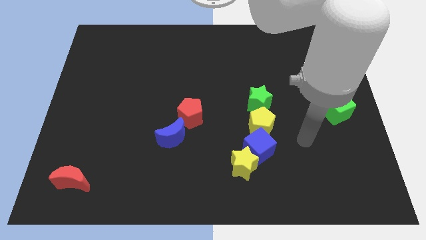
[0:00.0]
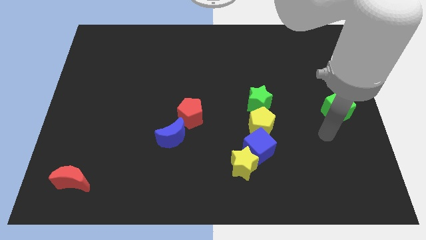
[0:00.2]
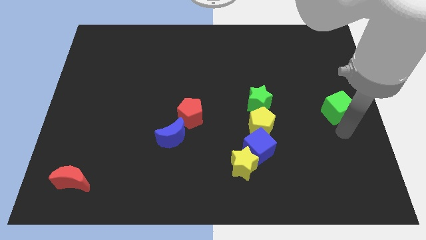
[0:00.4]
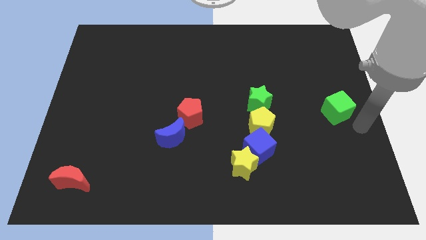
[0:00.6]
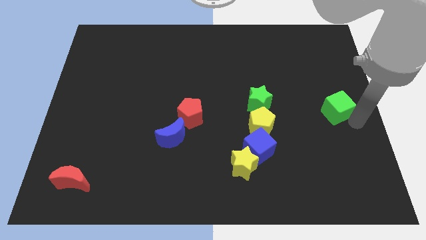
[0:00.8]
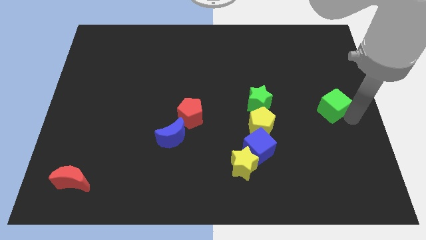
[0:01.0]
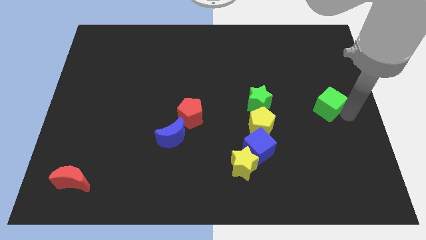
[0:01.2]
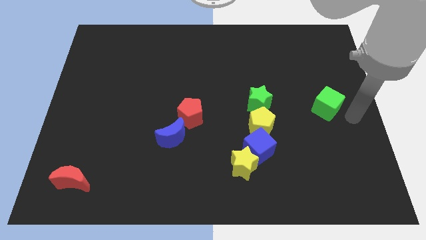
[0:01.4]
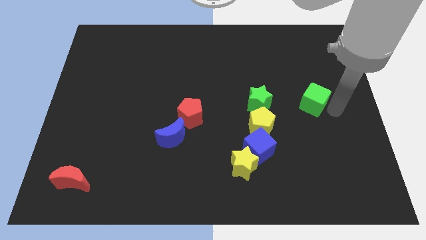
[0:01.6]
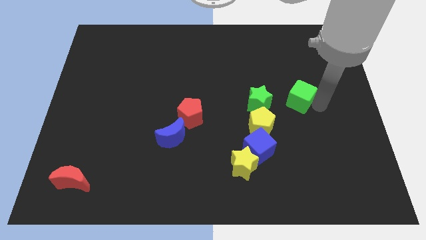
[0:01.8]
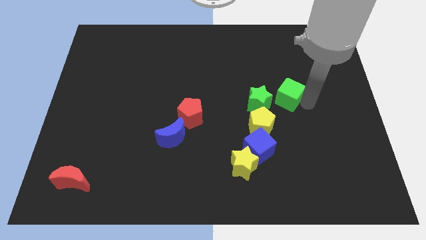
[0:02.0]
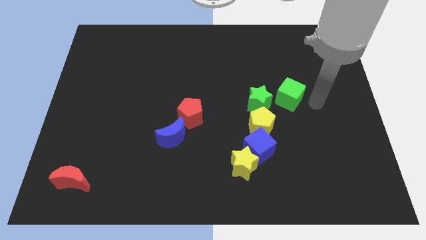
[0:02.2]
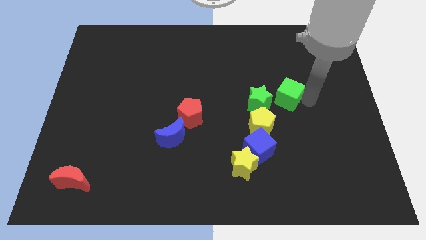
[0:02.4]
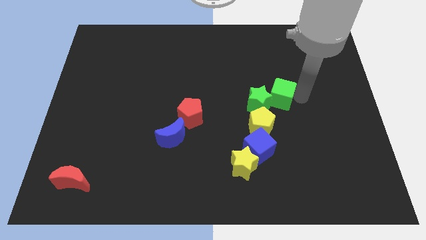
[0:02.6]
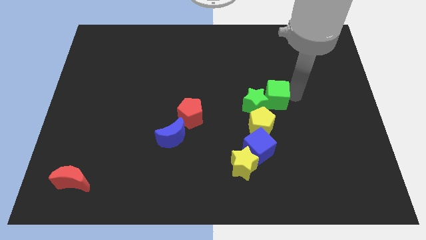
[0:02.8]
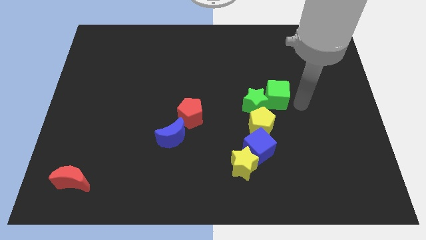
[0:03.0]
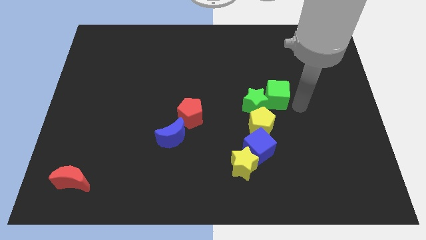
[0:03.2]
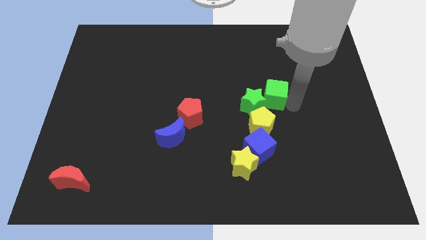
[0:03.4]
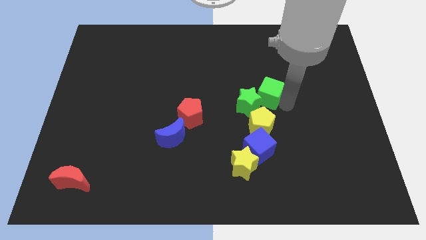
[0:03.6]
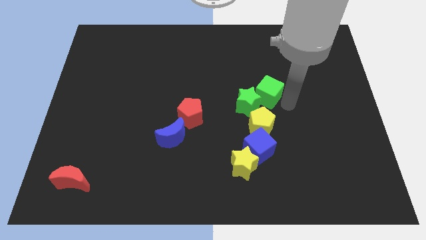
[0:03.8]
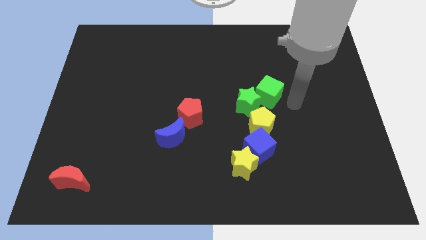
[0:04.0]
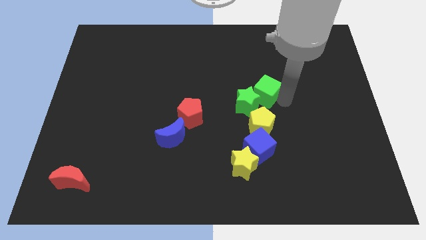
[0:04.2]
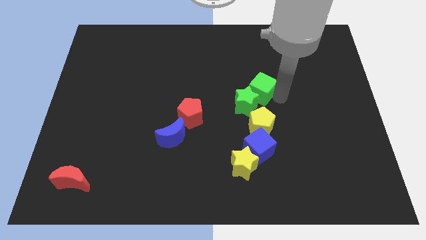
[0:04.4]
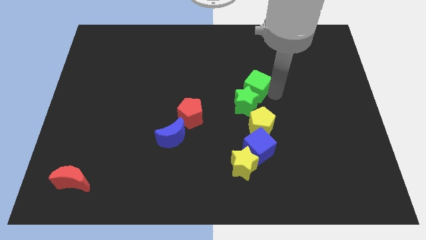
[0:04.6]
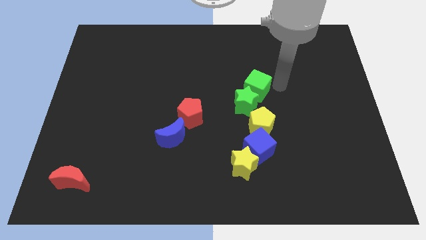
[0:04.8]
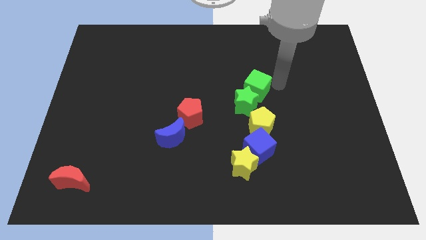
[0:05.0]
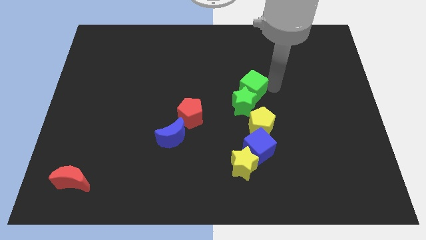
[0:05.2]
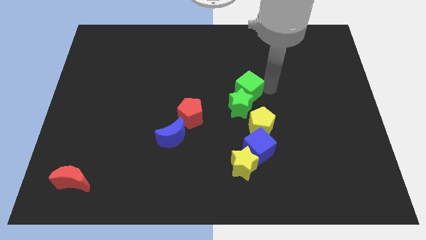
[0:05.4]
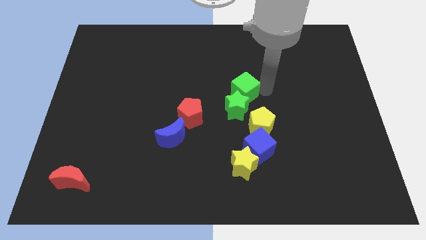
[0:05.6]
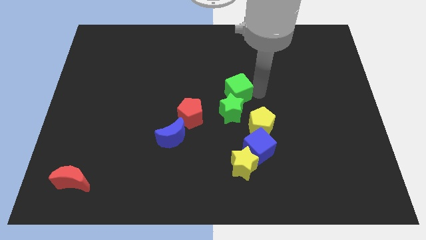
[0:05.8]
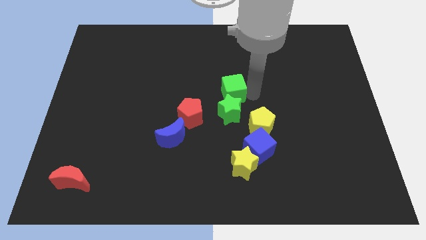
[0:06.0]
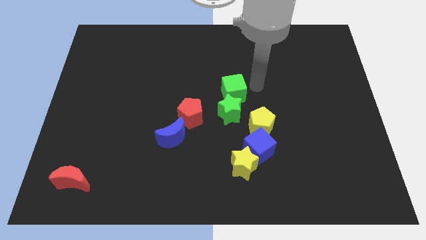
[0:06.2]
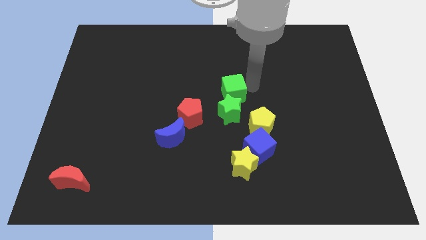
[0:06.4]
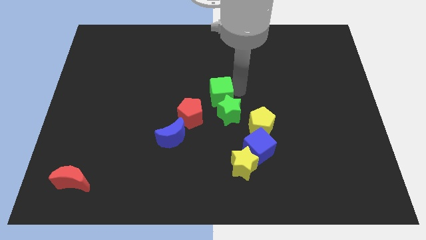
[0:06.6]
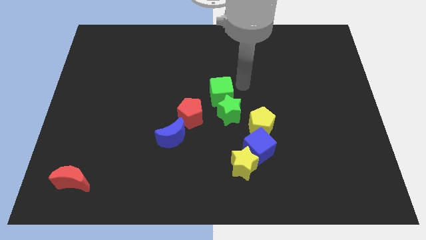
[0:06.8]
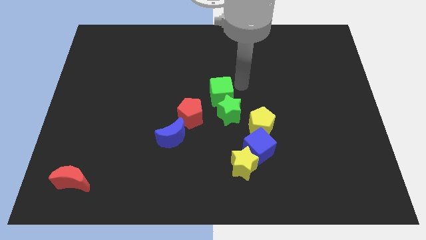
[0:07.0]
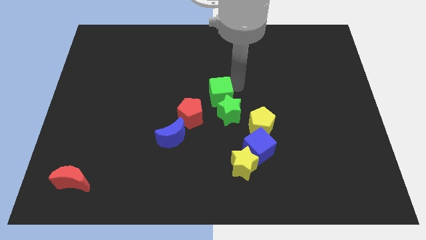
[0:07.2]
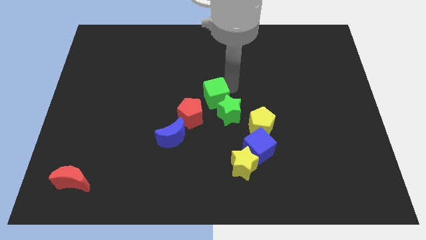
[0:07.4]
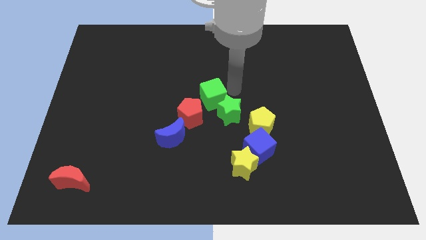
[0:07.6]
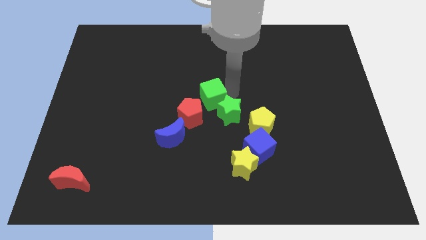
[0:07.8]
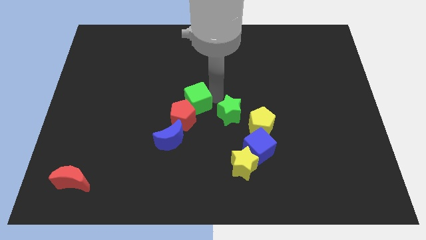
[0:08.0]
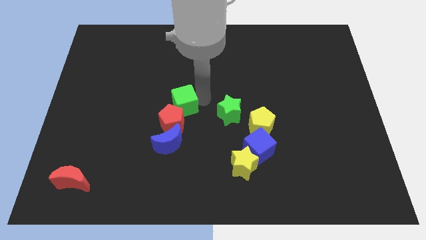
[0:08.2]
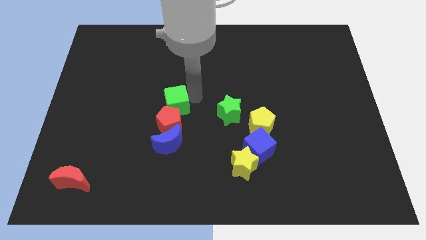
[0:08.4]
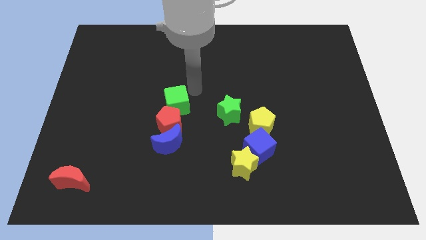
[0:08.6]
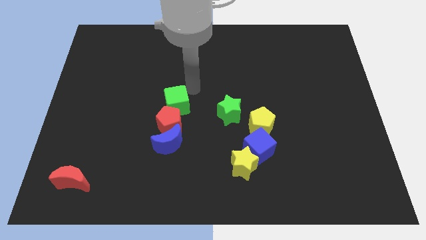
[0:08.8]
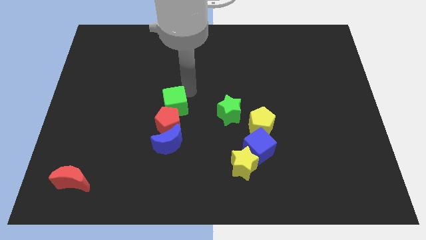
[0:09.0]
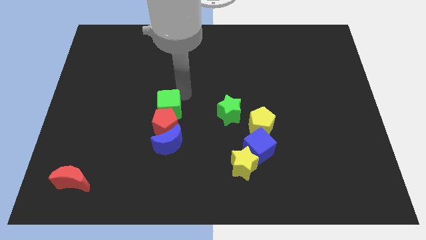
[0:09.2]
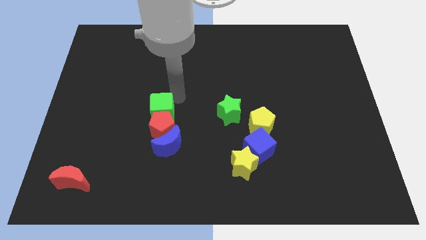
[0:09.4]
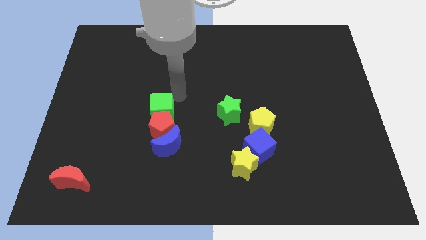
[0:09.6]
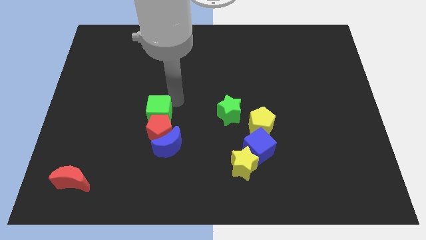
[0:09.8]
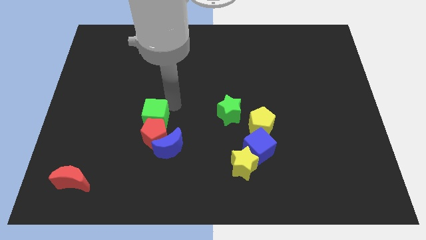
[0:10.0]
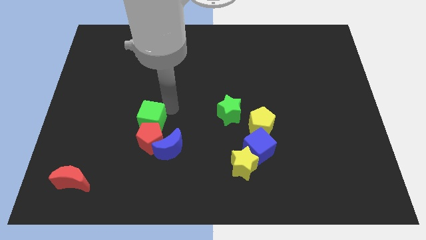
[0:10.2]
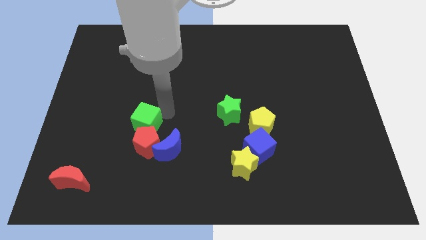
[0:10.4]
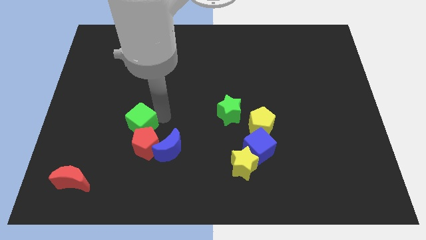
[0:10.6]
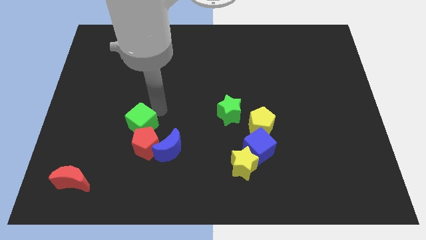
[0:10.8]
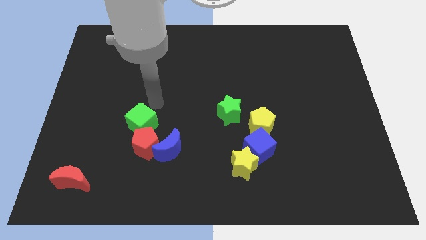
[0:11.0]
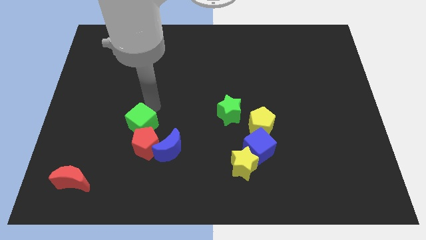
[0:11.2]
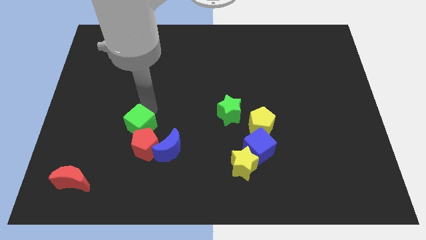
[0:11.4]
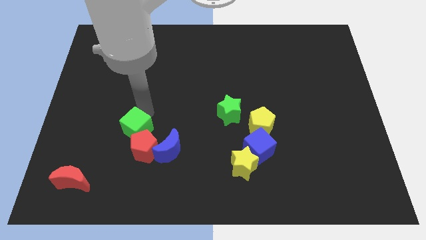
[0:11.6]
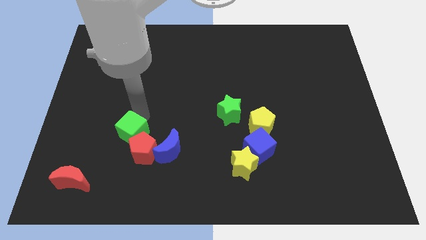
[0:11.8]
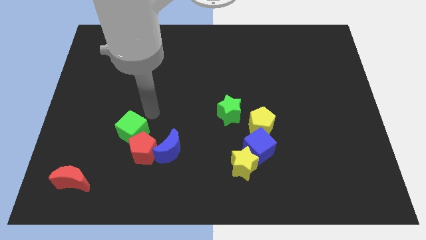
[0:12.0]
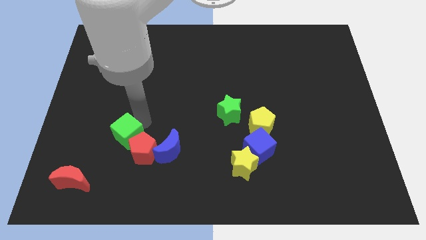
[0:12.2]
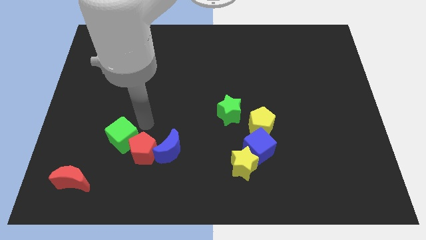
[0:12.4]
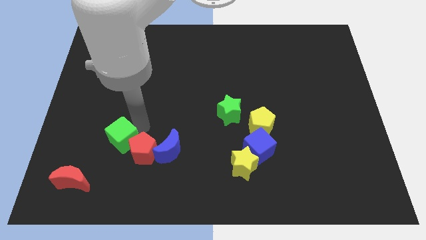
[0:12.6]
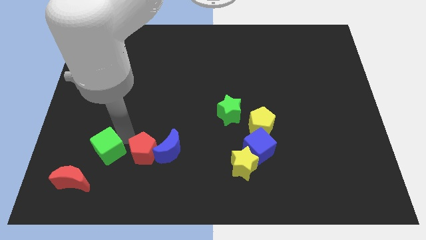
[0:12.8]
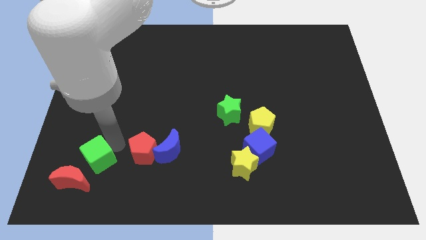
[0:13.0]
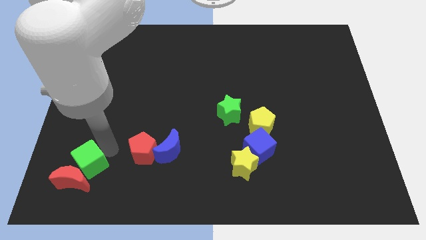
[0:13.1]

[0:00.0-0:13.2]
push the green cube close to the red moon
